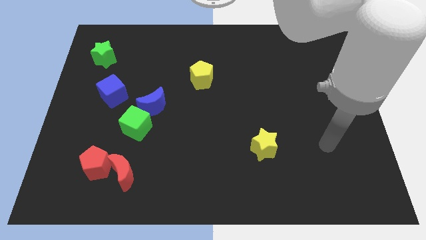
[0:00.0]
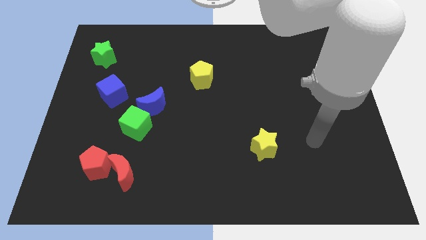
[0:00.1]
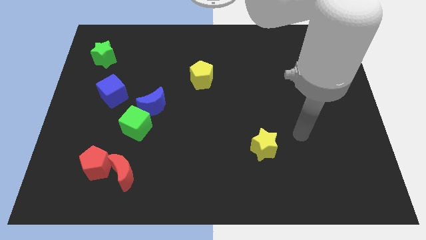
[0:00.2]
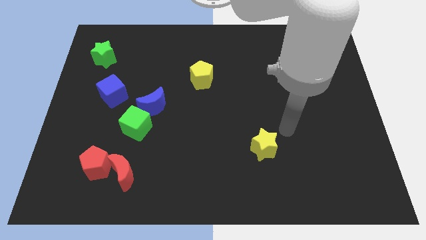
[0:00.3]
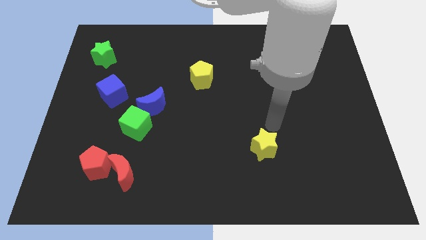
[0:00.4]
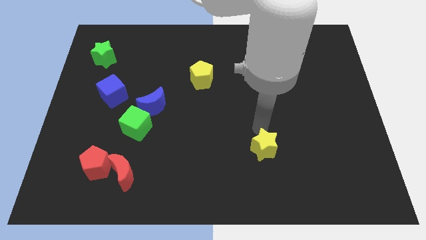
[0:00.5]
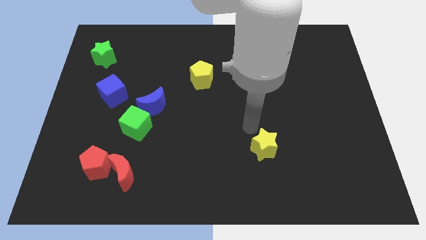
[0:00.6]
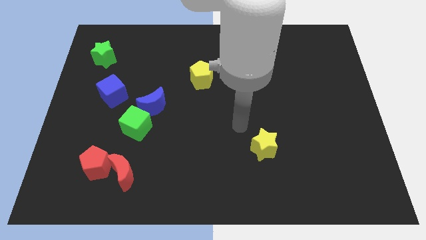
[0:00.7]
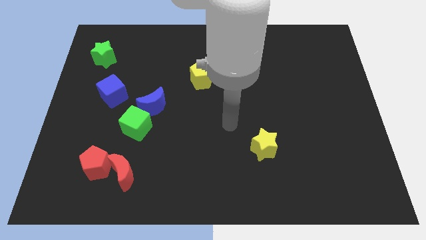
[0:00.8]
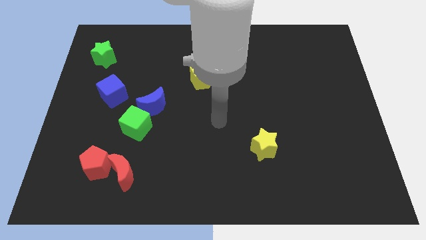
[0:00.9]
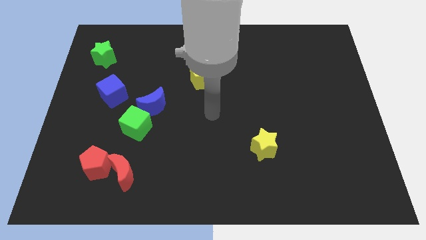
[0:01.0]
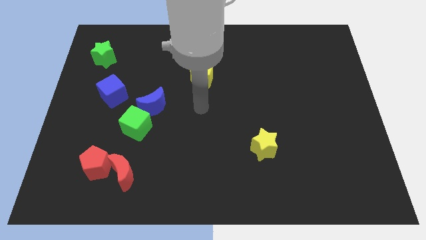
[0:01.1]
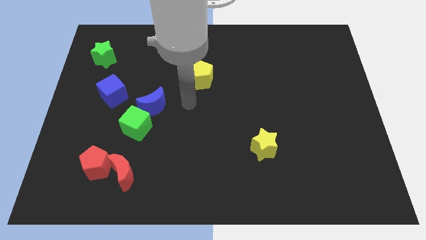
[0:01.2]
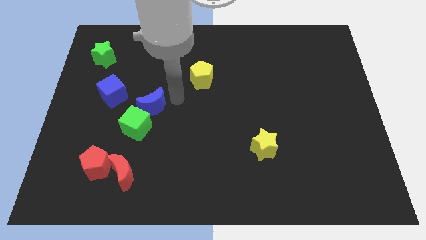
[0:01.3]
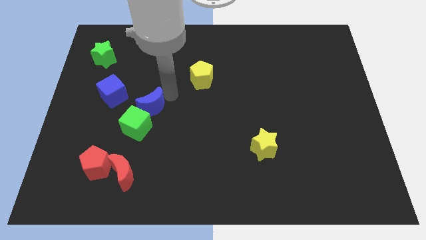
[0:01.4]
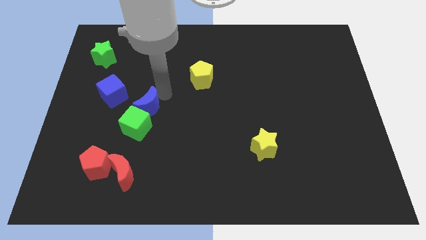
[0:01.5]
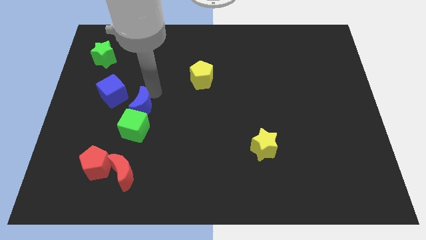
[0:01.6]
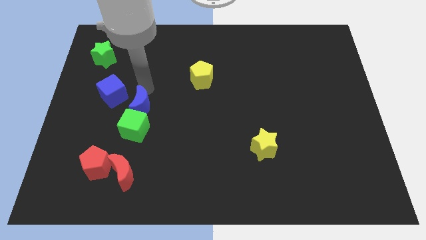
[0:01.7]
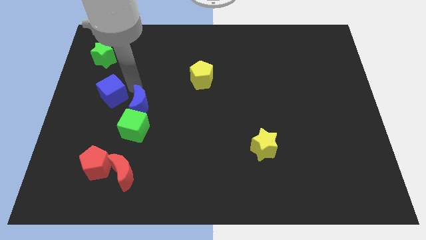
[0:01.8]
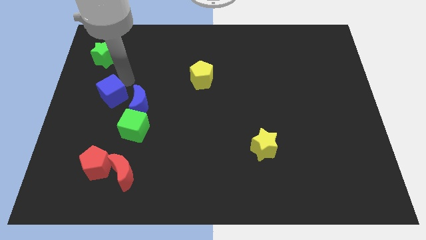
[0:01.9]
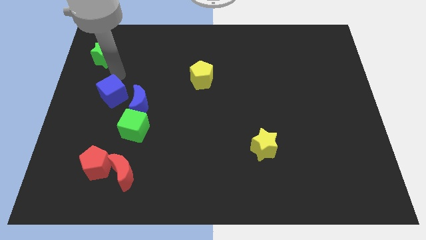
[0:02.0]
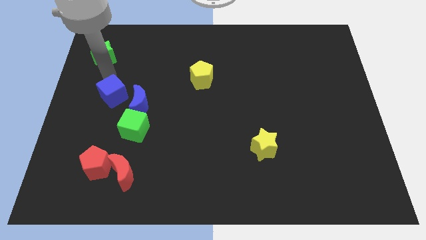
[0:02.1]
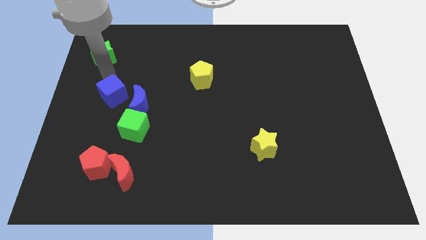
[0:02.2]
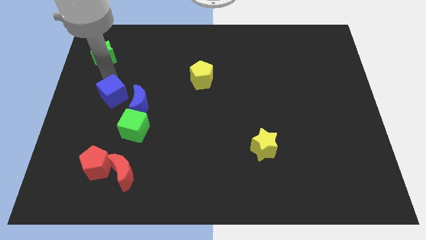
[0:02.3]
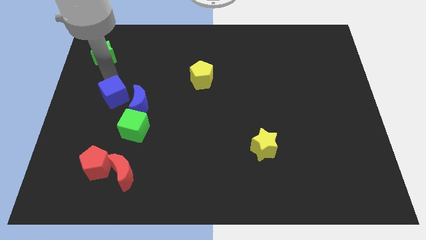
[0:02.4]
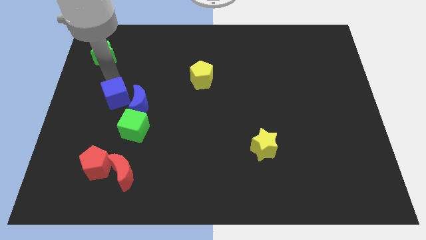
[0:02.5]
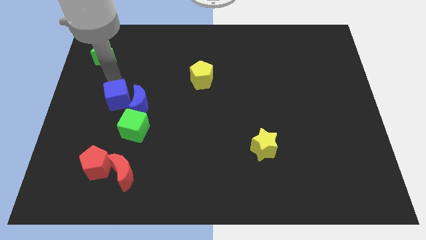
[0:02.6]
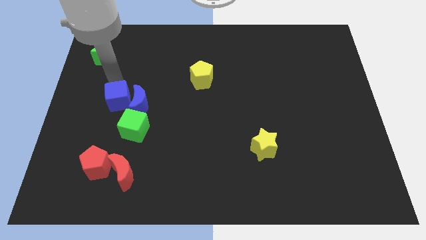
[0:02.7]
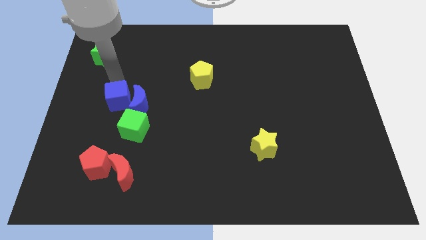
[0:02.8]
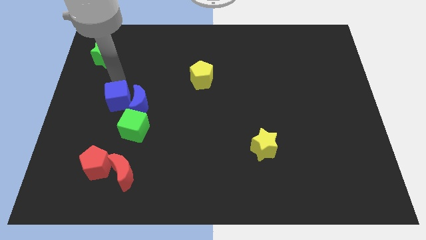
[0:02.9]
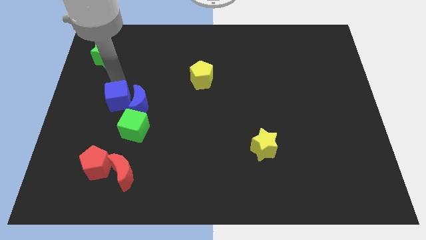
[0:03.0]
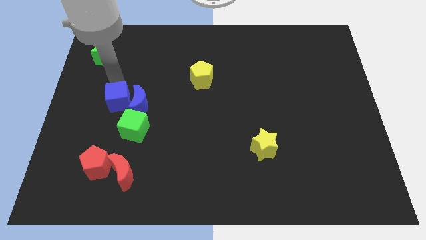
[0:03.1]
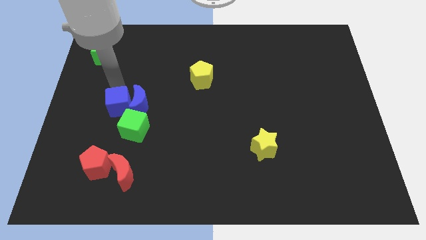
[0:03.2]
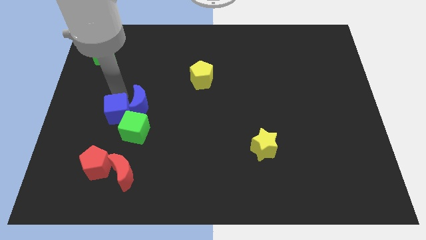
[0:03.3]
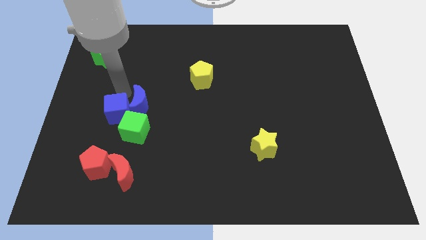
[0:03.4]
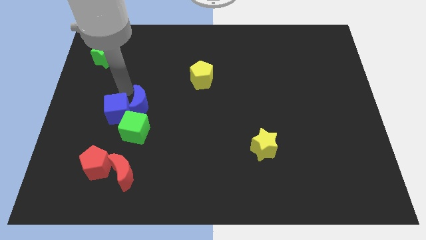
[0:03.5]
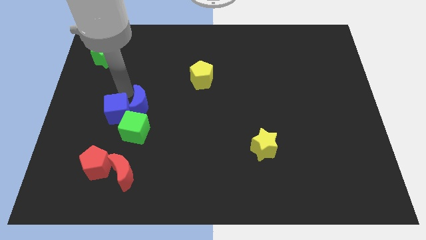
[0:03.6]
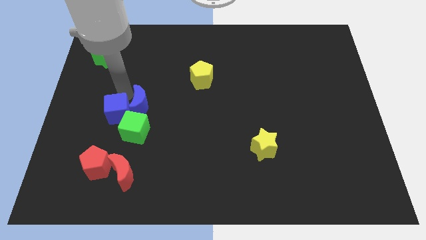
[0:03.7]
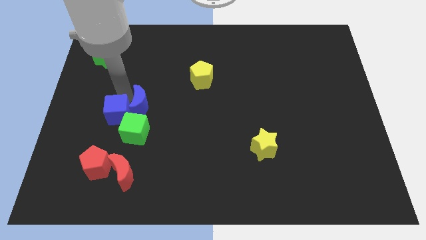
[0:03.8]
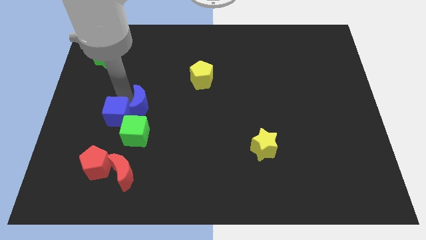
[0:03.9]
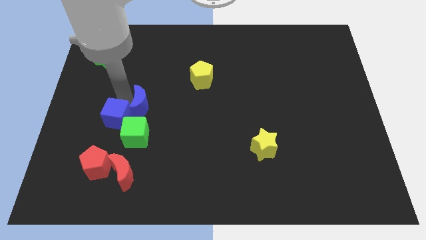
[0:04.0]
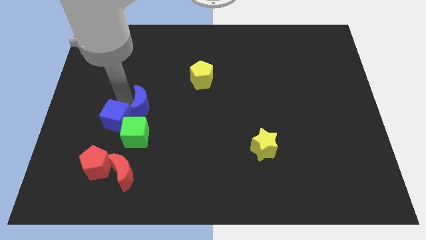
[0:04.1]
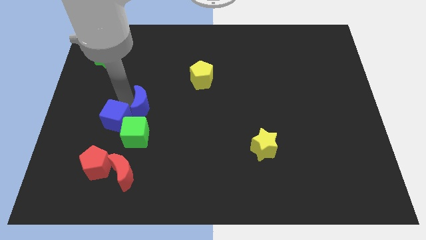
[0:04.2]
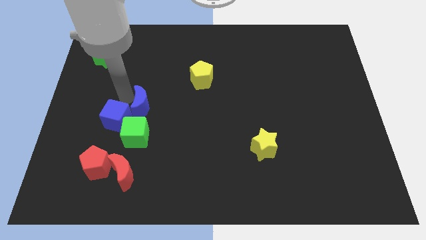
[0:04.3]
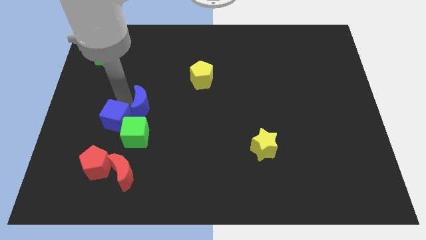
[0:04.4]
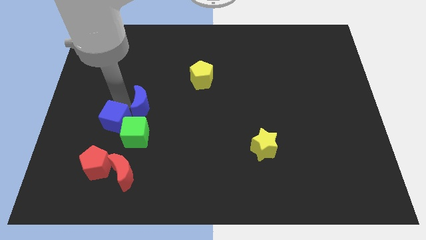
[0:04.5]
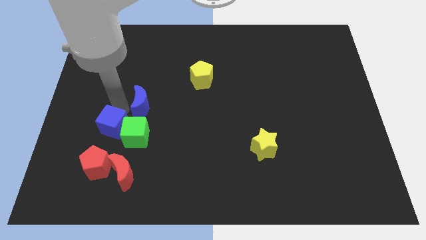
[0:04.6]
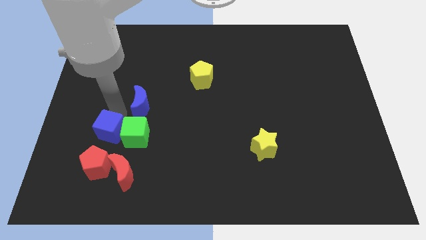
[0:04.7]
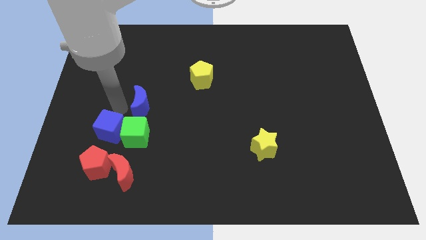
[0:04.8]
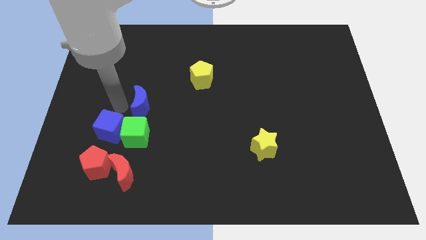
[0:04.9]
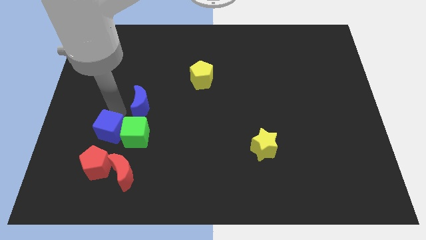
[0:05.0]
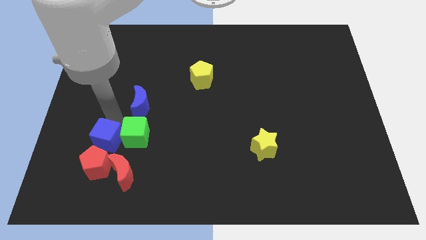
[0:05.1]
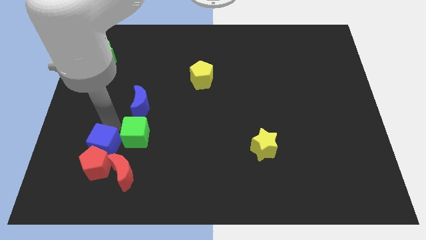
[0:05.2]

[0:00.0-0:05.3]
slide the blue cube close to the red pentagon

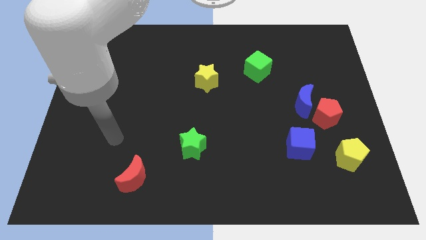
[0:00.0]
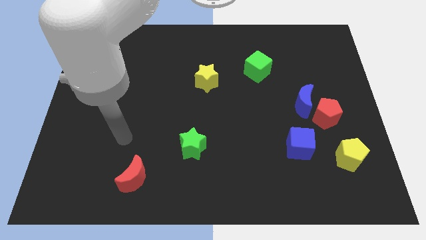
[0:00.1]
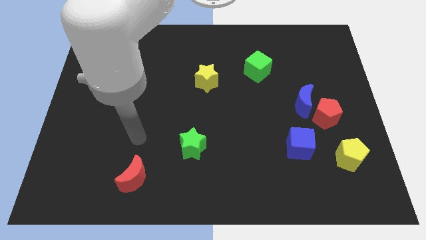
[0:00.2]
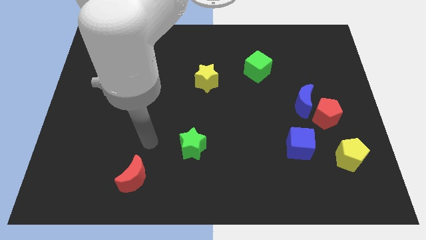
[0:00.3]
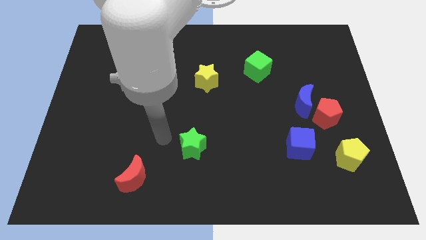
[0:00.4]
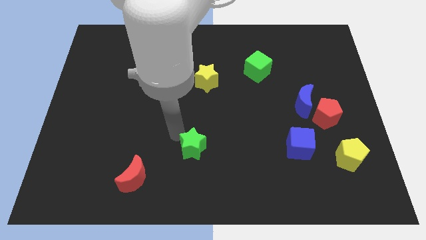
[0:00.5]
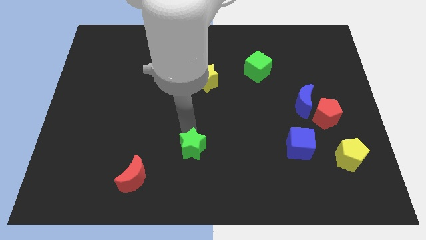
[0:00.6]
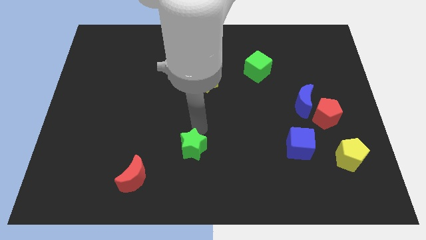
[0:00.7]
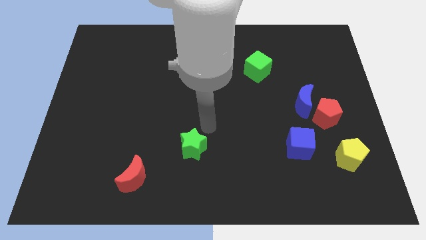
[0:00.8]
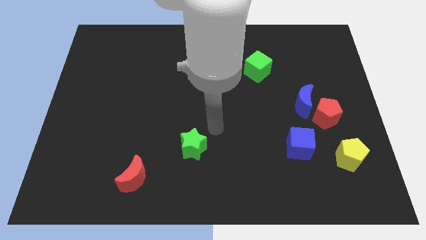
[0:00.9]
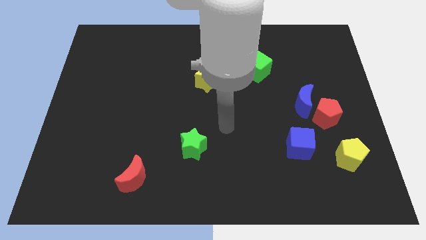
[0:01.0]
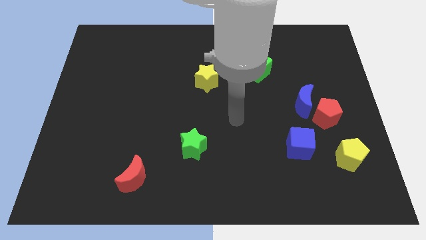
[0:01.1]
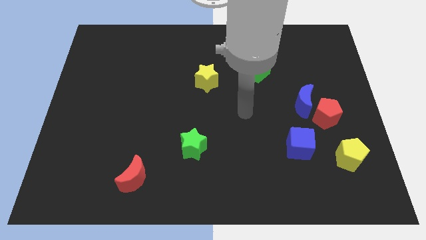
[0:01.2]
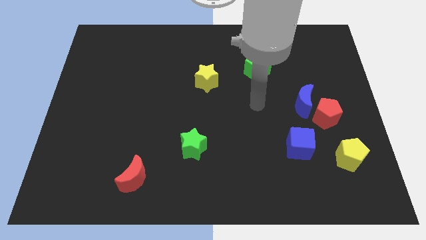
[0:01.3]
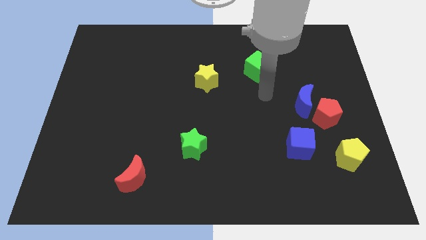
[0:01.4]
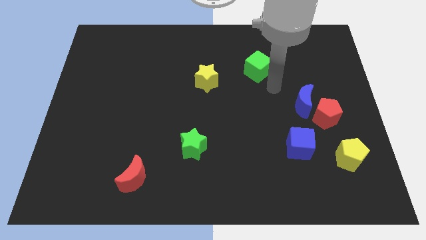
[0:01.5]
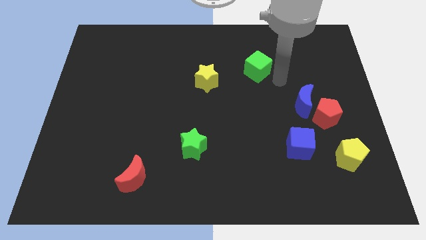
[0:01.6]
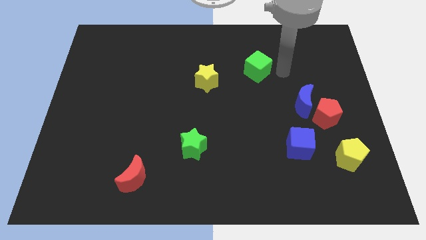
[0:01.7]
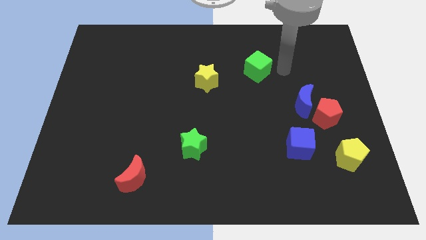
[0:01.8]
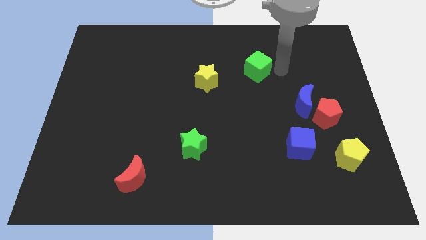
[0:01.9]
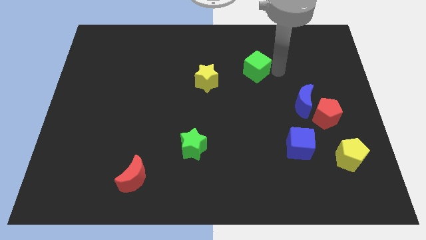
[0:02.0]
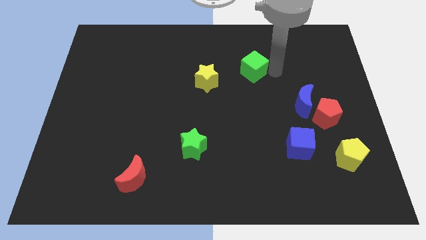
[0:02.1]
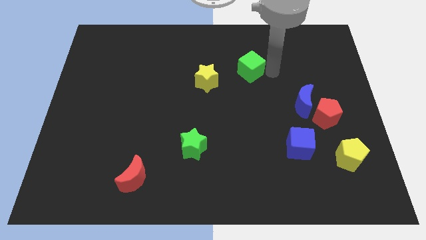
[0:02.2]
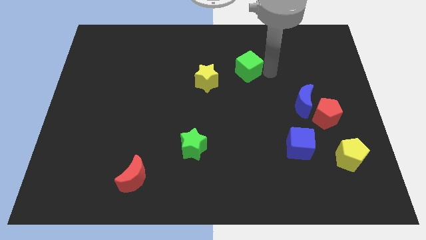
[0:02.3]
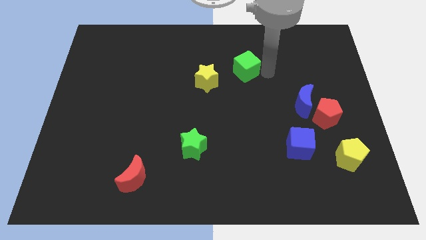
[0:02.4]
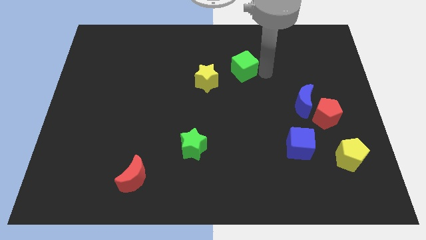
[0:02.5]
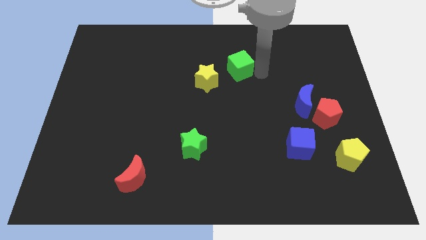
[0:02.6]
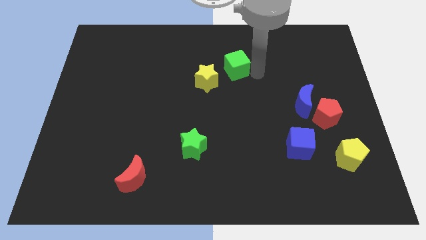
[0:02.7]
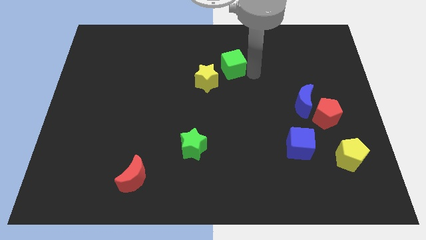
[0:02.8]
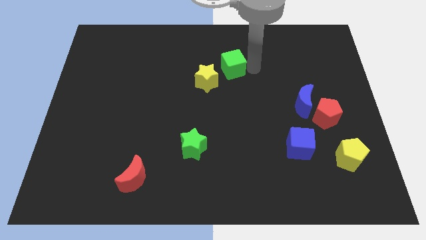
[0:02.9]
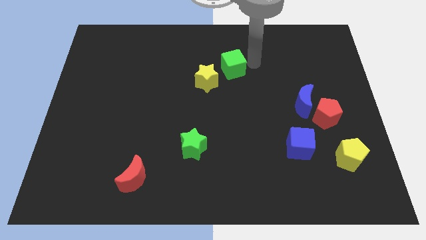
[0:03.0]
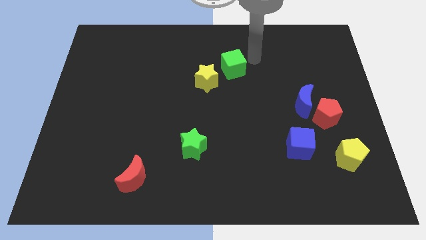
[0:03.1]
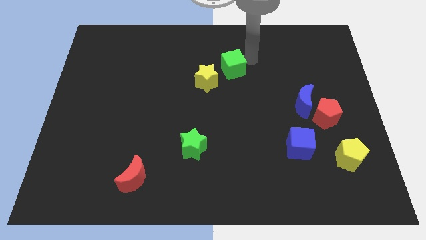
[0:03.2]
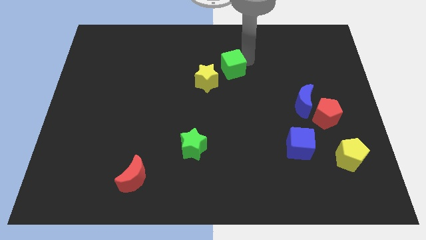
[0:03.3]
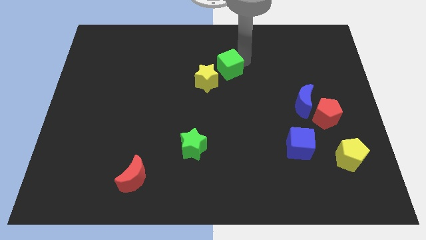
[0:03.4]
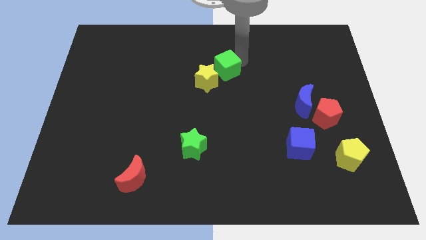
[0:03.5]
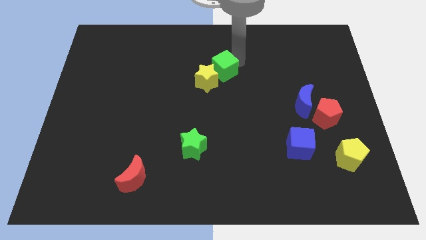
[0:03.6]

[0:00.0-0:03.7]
push the green cube next to the yellow star
